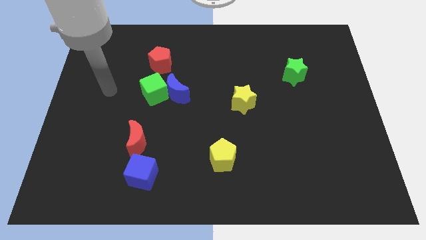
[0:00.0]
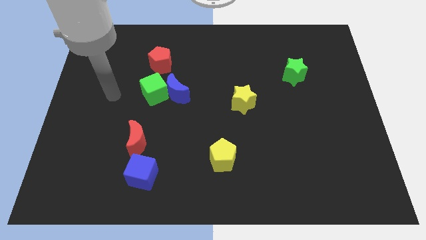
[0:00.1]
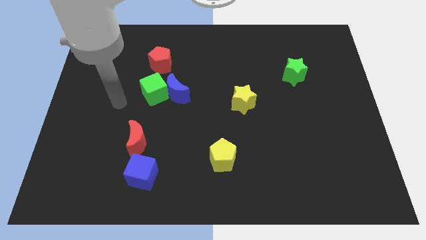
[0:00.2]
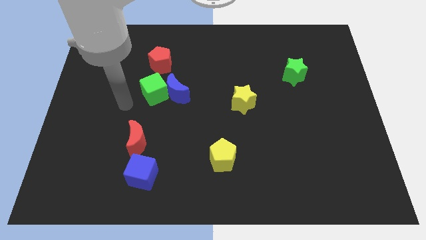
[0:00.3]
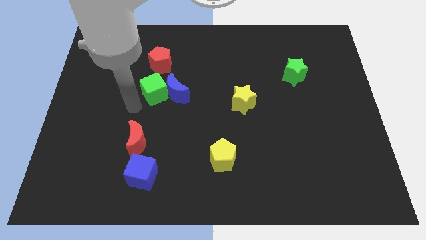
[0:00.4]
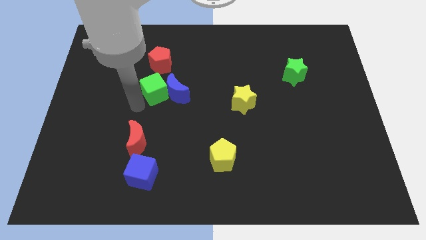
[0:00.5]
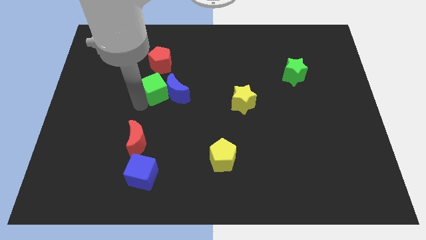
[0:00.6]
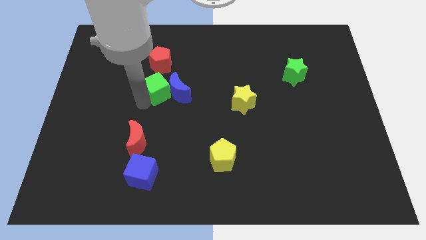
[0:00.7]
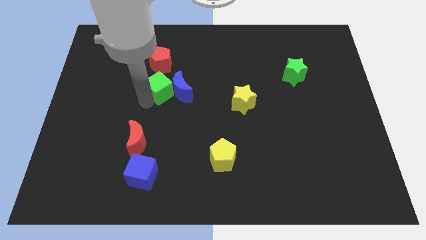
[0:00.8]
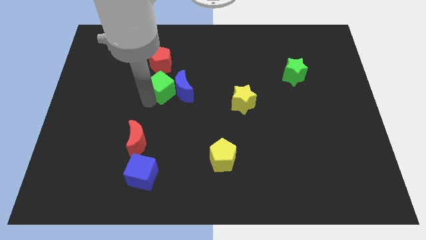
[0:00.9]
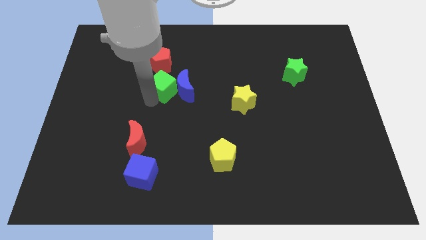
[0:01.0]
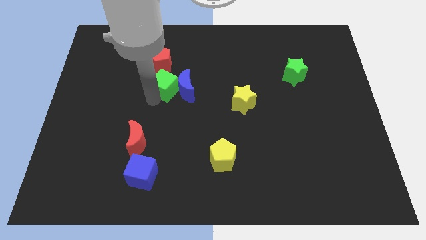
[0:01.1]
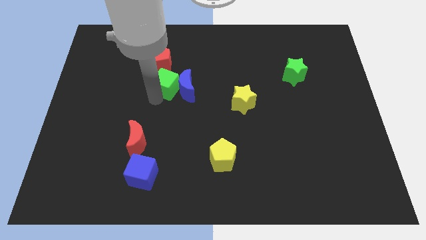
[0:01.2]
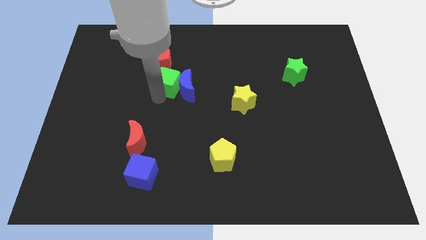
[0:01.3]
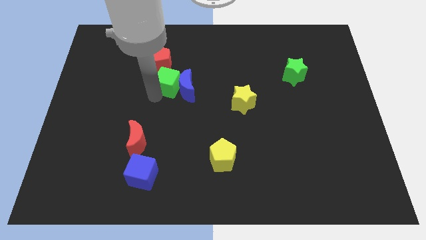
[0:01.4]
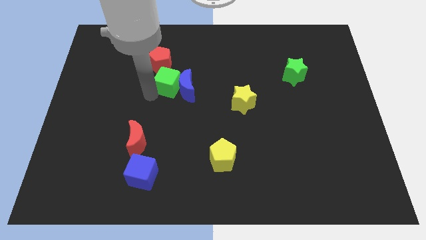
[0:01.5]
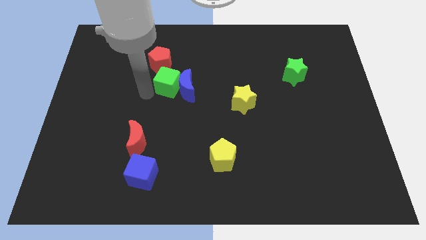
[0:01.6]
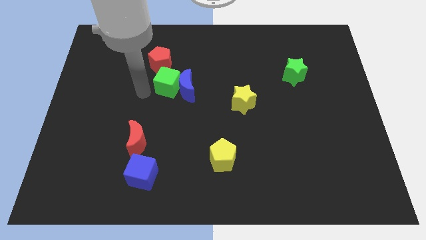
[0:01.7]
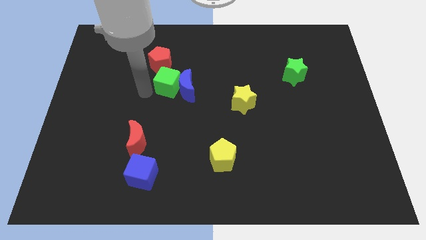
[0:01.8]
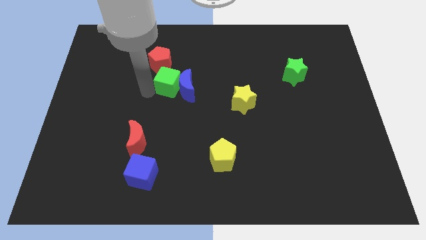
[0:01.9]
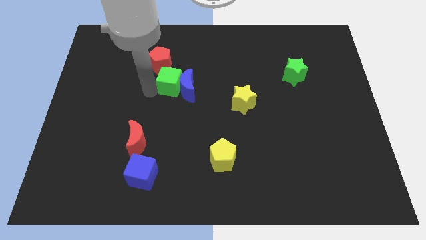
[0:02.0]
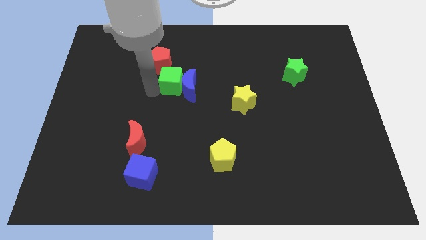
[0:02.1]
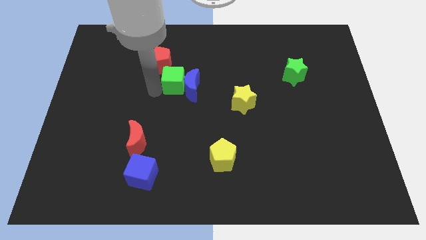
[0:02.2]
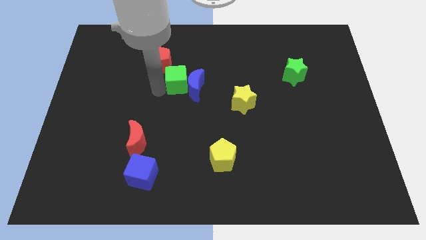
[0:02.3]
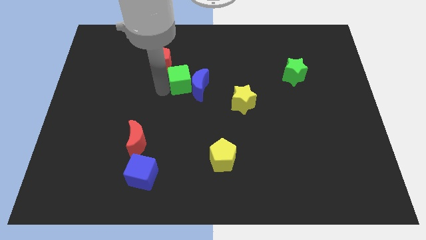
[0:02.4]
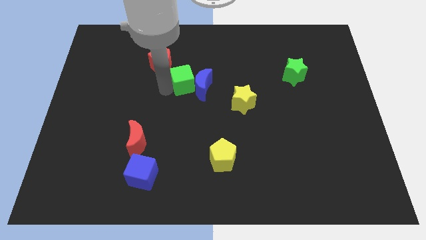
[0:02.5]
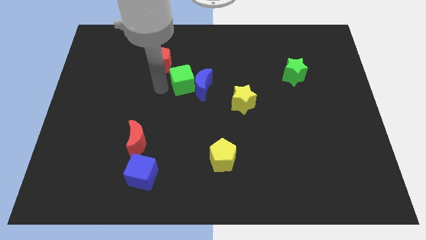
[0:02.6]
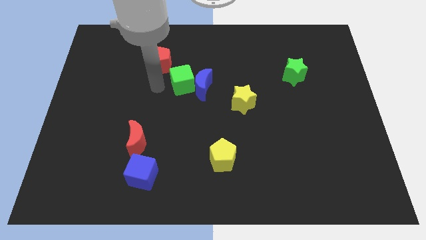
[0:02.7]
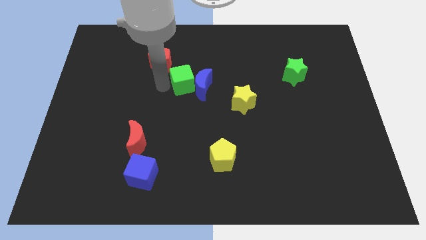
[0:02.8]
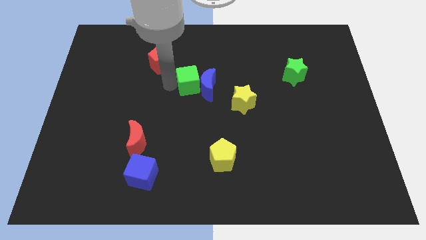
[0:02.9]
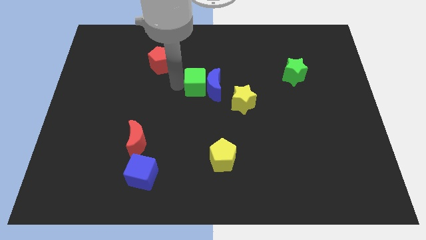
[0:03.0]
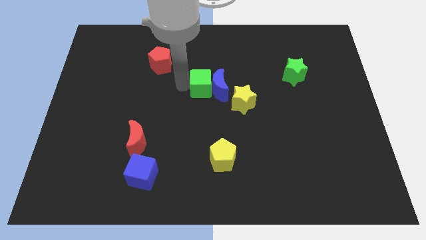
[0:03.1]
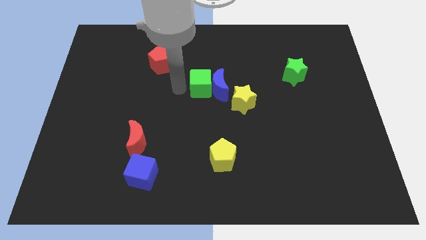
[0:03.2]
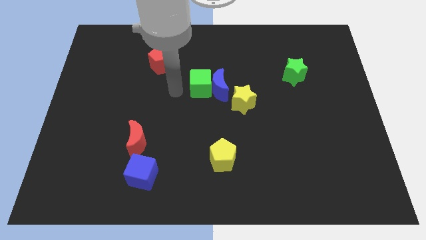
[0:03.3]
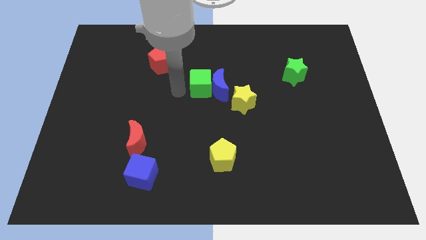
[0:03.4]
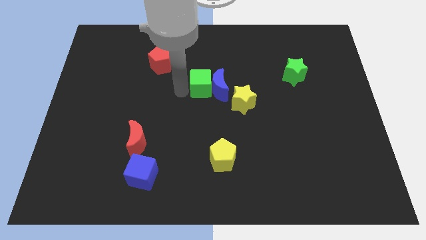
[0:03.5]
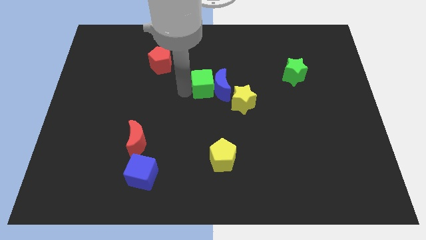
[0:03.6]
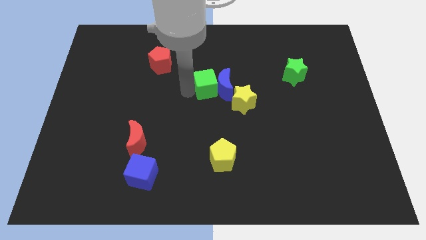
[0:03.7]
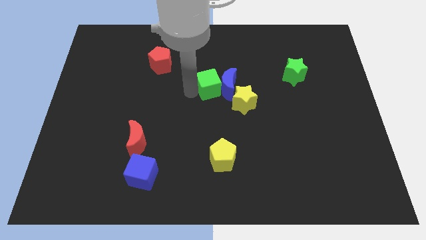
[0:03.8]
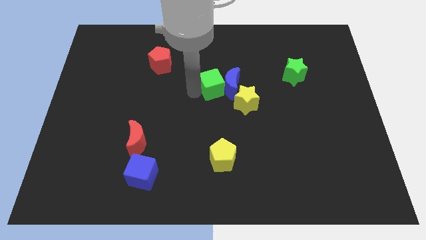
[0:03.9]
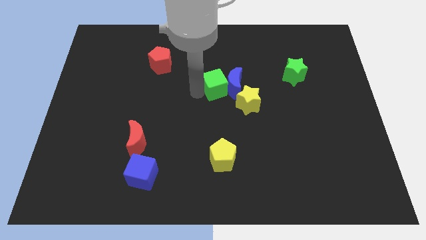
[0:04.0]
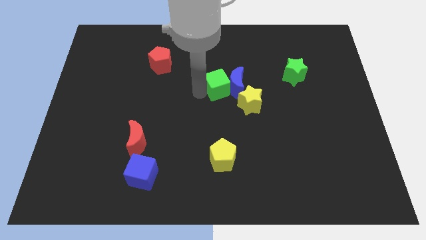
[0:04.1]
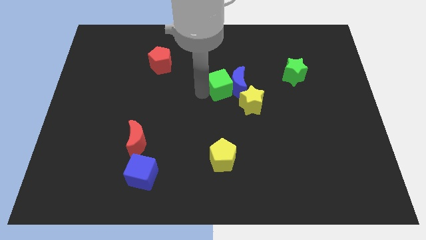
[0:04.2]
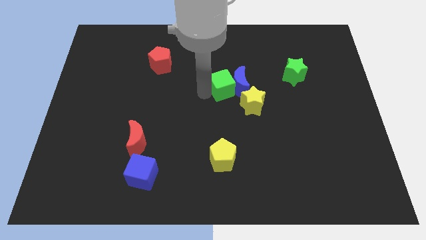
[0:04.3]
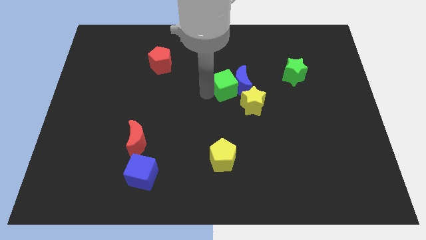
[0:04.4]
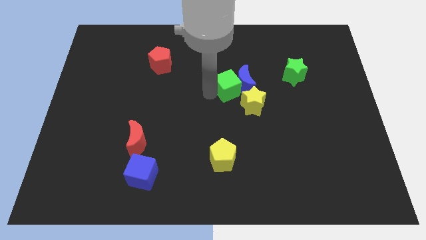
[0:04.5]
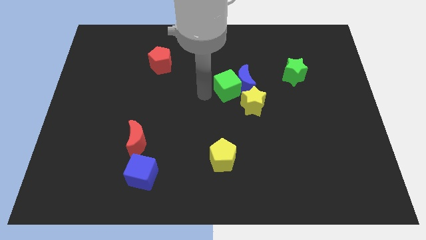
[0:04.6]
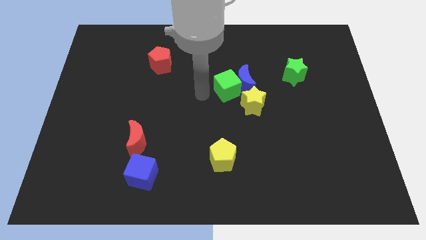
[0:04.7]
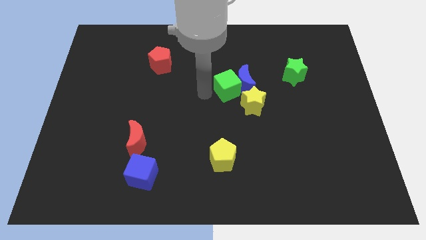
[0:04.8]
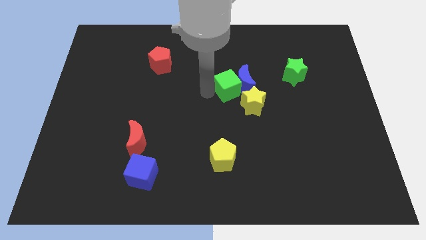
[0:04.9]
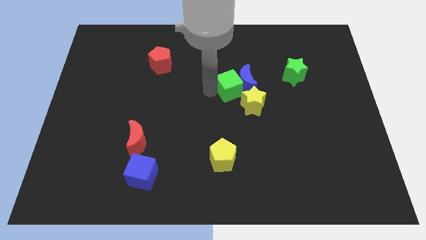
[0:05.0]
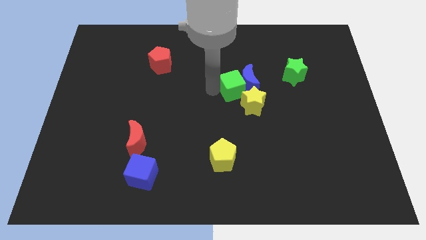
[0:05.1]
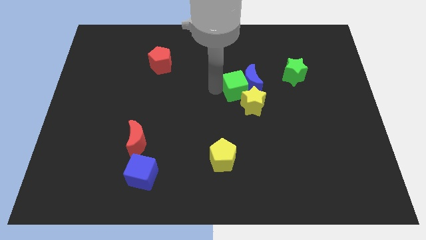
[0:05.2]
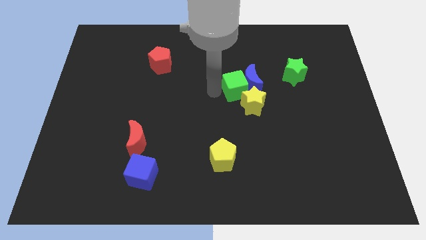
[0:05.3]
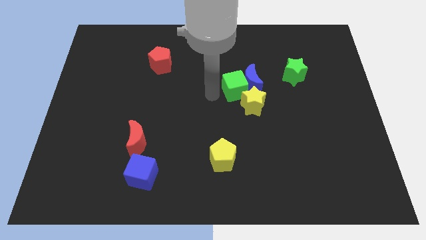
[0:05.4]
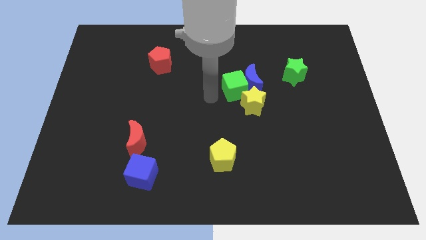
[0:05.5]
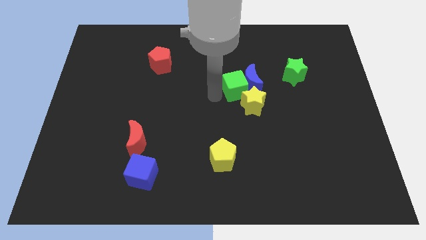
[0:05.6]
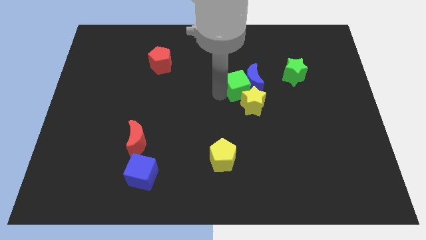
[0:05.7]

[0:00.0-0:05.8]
push the green cube to the right

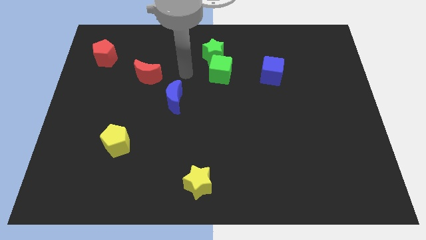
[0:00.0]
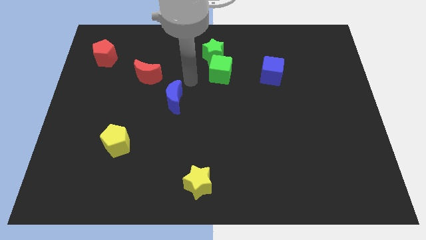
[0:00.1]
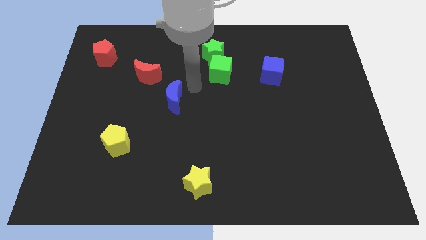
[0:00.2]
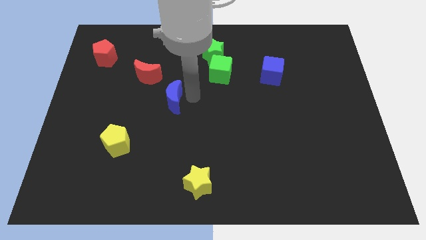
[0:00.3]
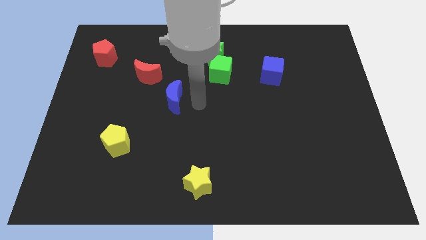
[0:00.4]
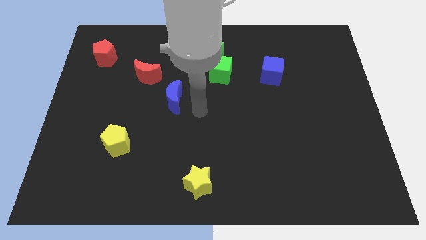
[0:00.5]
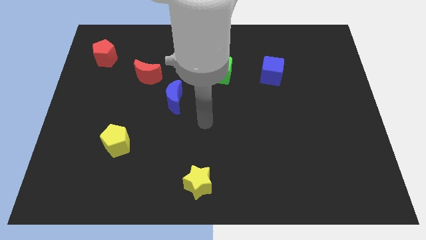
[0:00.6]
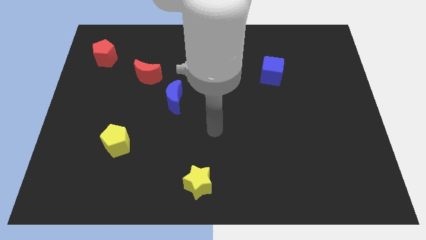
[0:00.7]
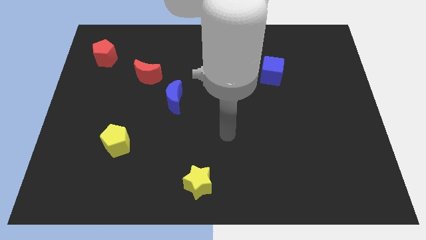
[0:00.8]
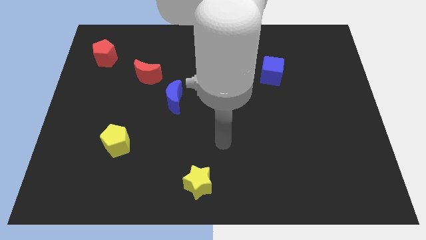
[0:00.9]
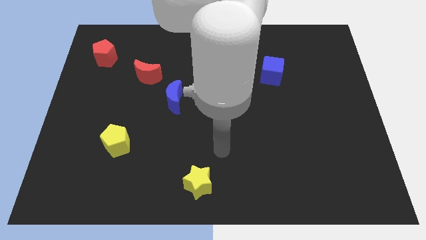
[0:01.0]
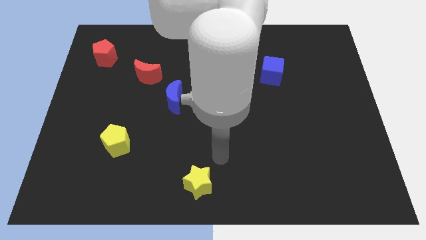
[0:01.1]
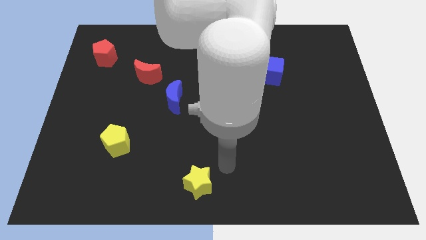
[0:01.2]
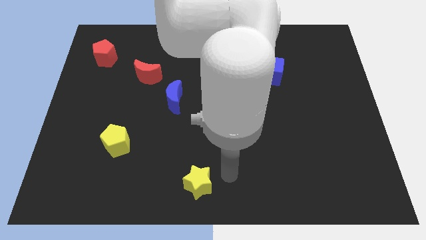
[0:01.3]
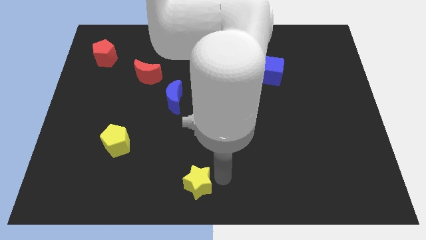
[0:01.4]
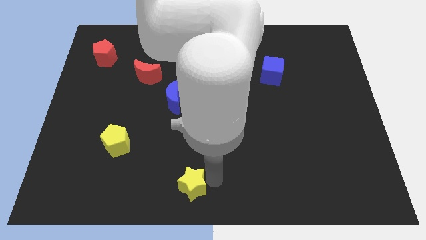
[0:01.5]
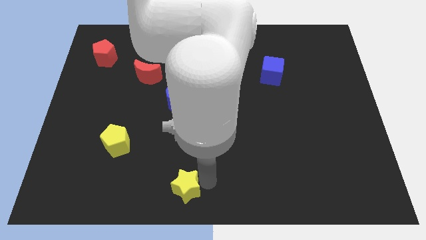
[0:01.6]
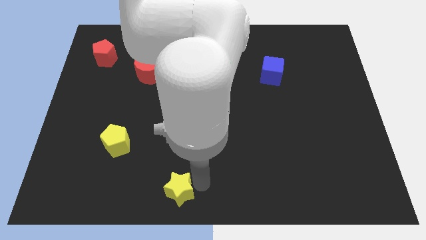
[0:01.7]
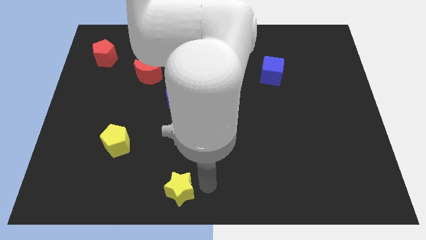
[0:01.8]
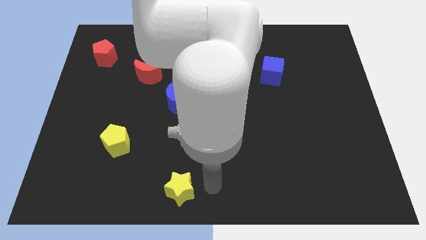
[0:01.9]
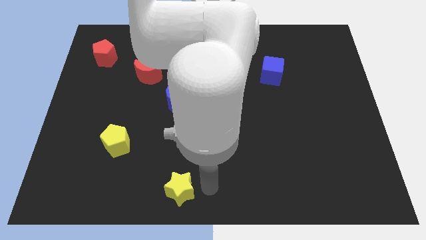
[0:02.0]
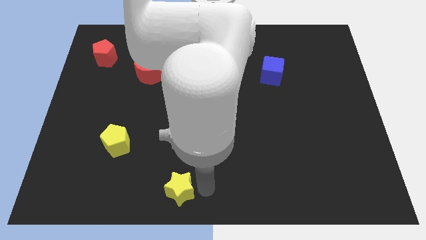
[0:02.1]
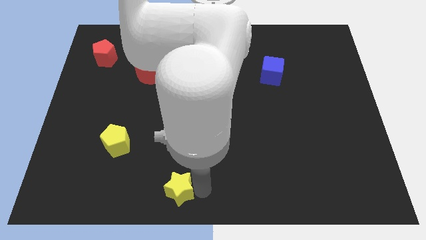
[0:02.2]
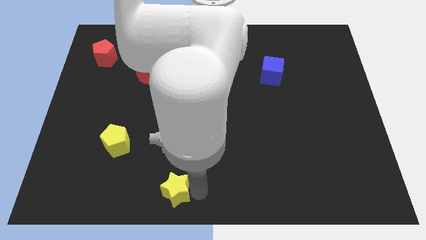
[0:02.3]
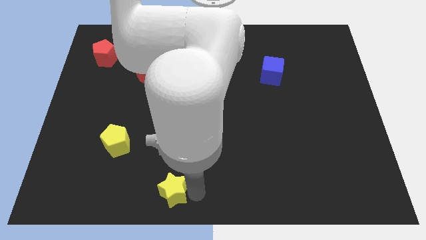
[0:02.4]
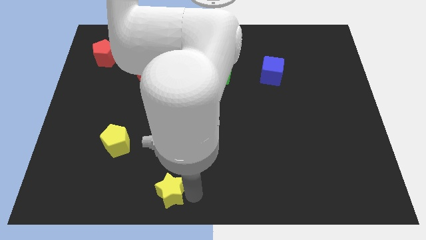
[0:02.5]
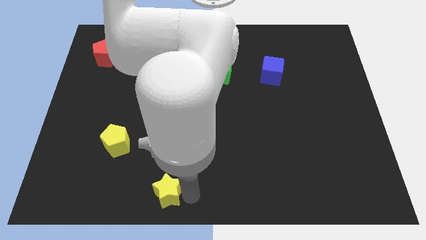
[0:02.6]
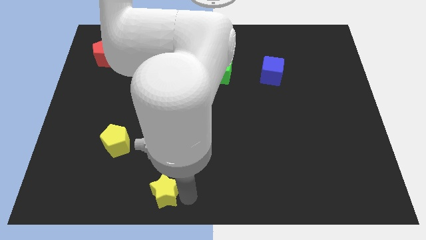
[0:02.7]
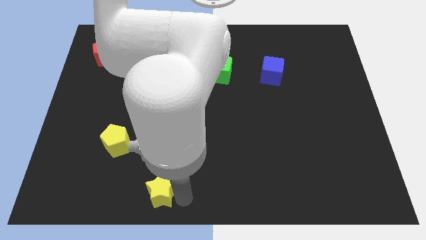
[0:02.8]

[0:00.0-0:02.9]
slightly push the yellow star left
